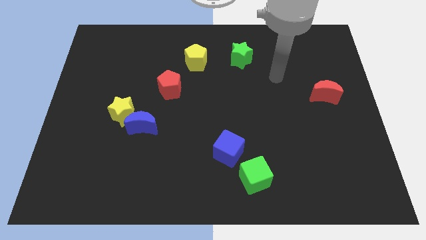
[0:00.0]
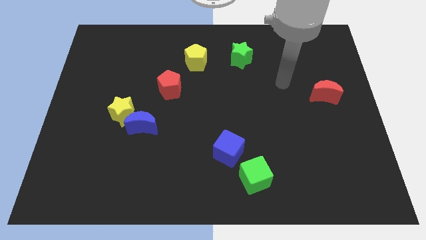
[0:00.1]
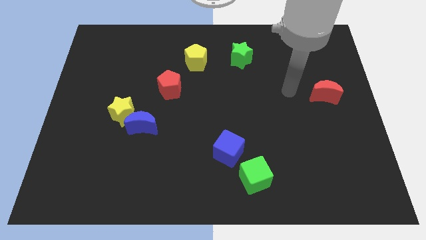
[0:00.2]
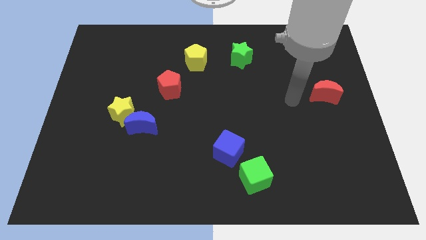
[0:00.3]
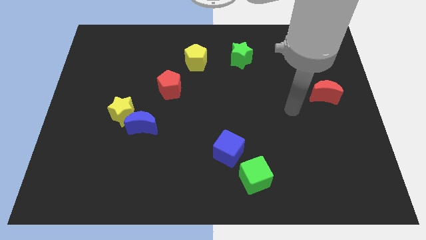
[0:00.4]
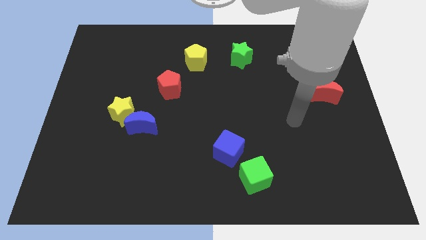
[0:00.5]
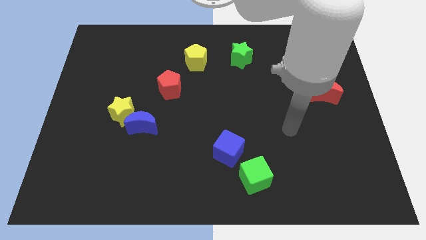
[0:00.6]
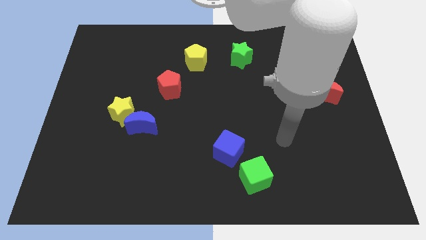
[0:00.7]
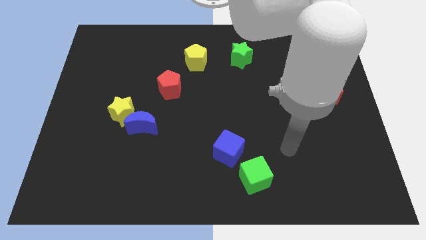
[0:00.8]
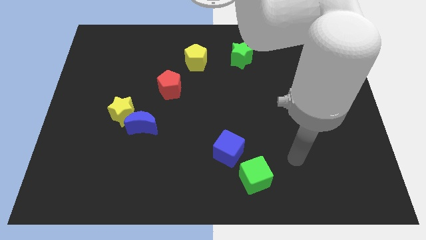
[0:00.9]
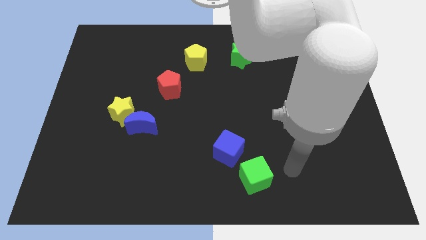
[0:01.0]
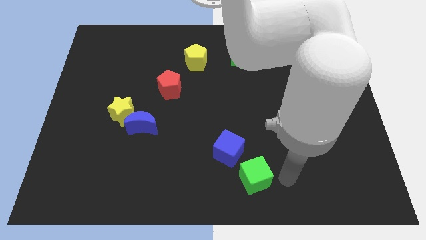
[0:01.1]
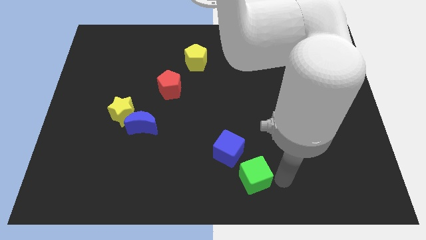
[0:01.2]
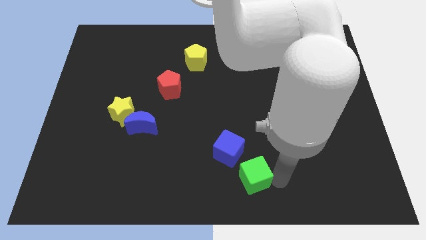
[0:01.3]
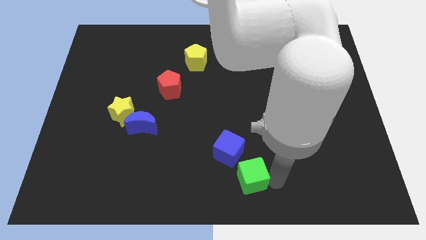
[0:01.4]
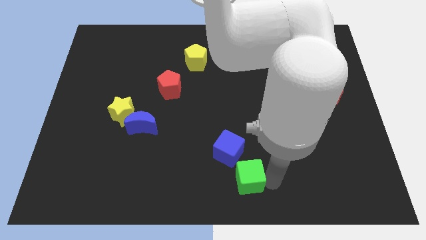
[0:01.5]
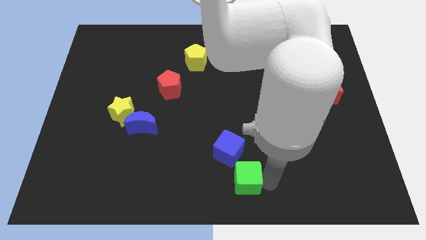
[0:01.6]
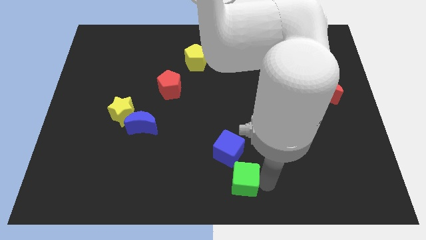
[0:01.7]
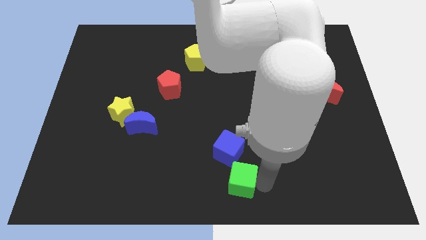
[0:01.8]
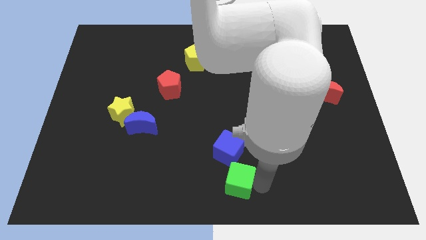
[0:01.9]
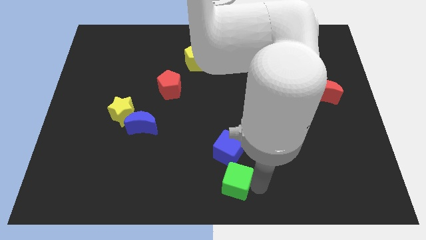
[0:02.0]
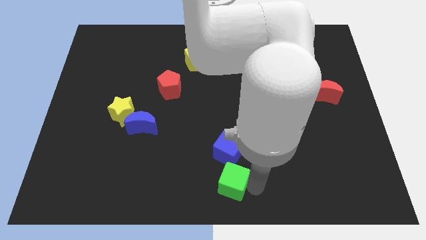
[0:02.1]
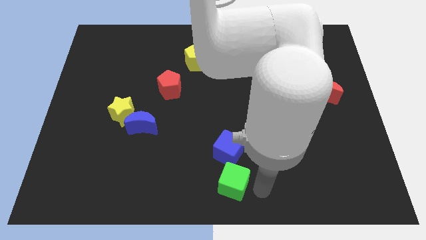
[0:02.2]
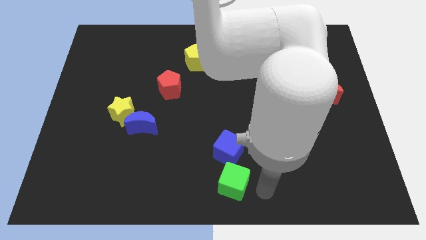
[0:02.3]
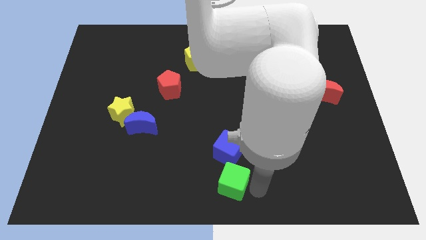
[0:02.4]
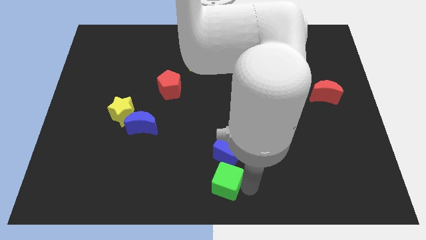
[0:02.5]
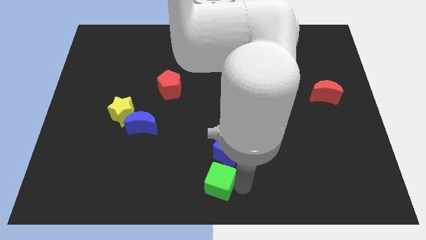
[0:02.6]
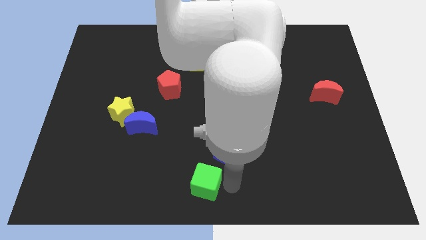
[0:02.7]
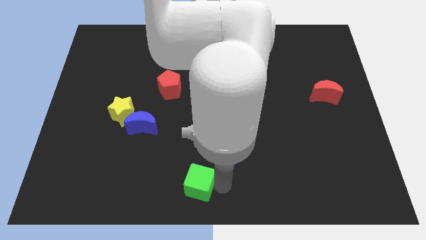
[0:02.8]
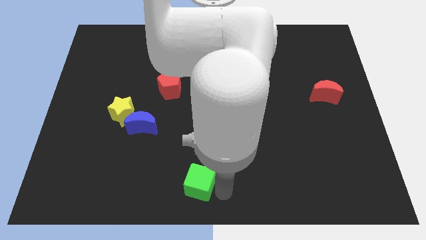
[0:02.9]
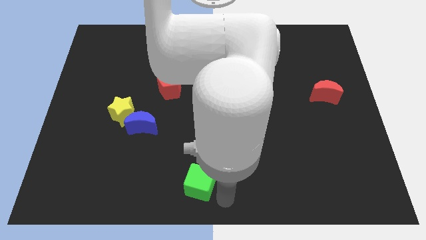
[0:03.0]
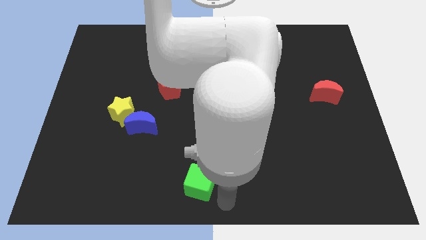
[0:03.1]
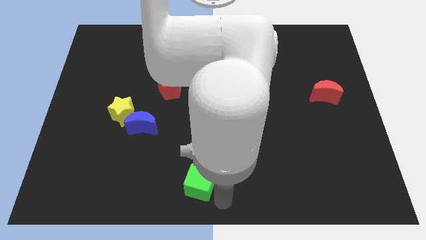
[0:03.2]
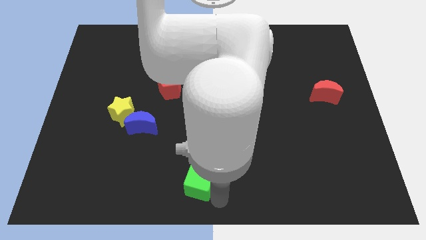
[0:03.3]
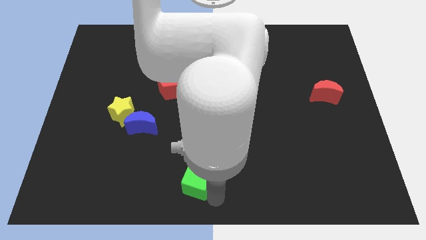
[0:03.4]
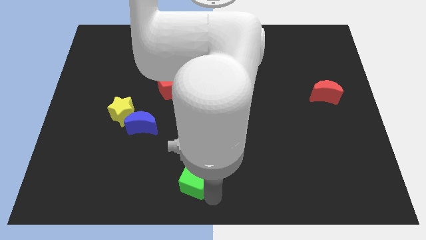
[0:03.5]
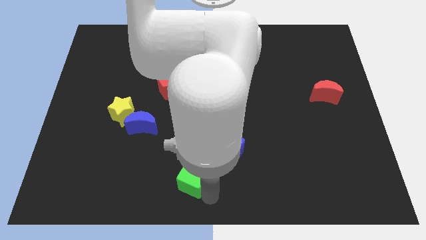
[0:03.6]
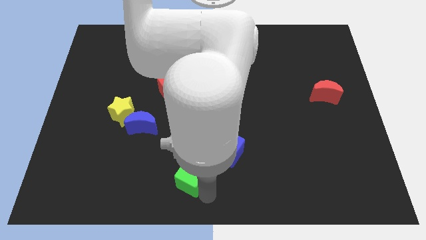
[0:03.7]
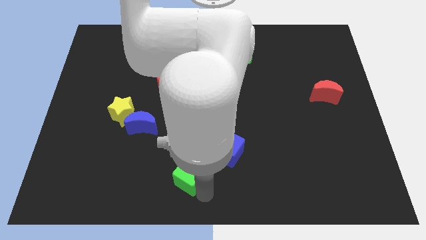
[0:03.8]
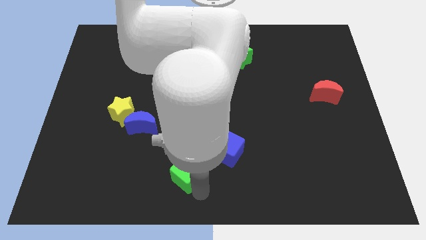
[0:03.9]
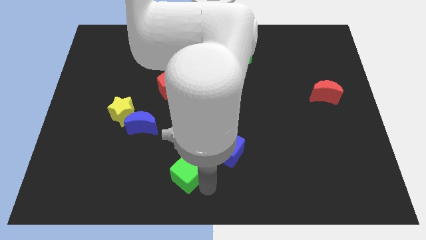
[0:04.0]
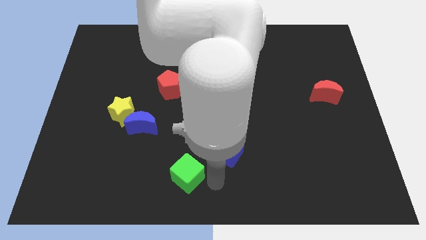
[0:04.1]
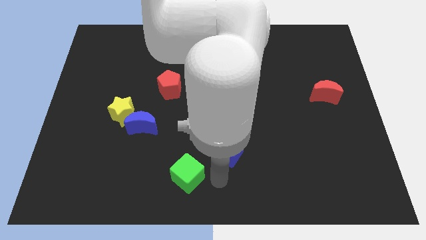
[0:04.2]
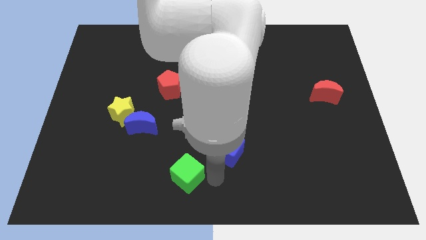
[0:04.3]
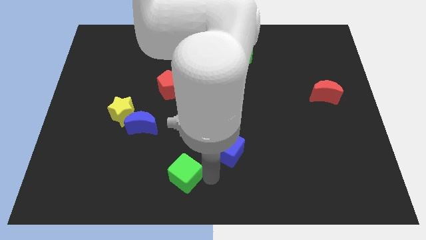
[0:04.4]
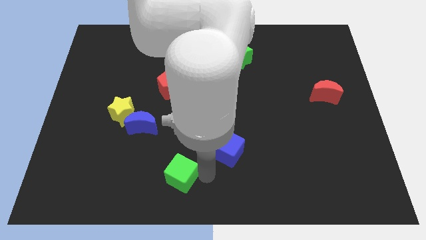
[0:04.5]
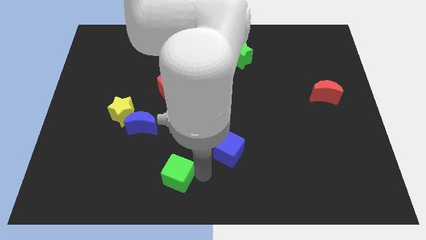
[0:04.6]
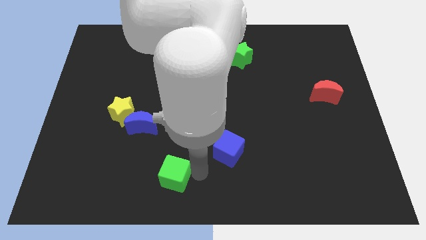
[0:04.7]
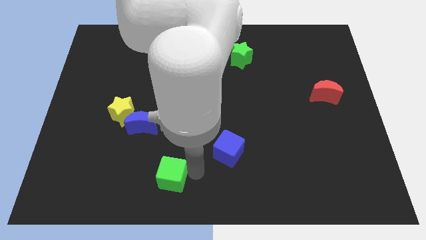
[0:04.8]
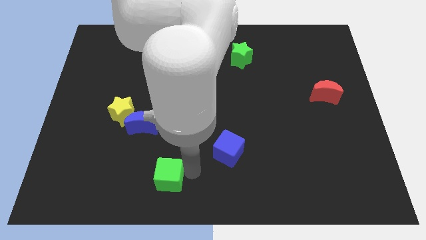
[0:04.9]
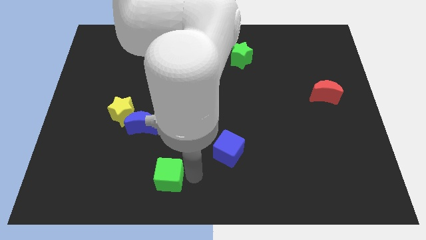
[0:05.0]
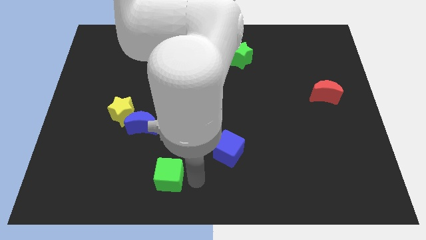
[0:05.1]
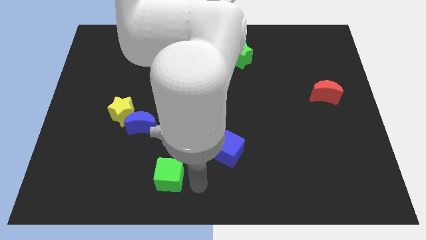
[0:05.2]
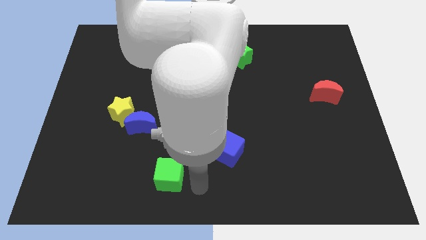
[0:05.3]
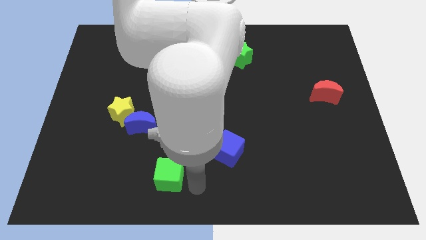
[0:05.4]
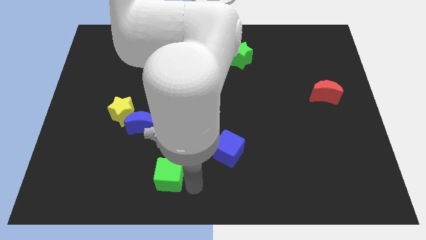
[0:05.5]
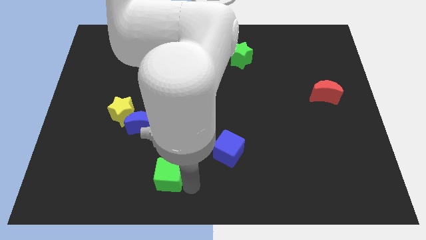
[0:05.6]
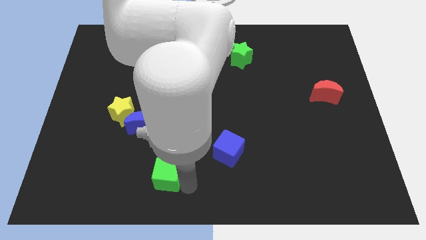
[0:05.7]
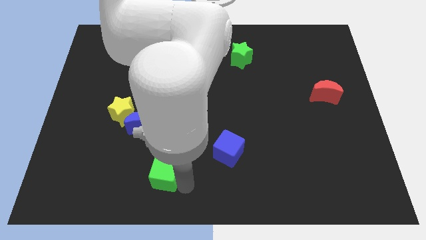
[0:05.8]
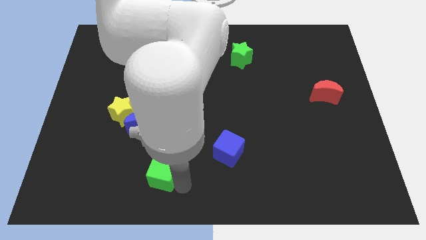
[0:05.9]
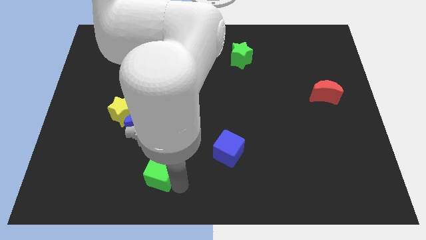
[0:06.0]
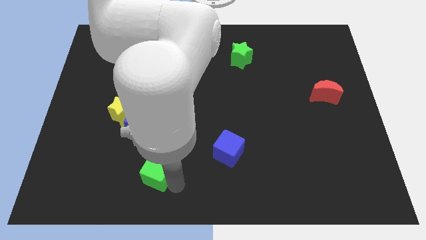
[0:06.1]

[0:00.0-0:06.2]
push the green cube left

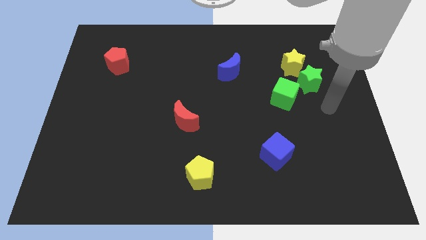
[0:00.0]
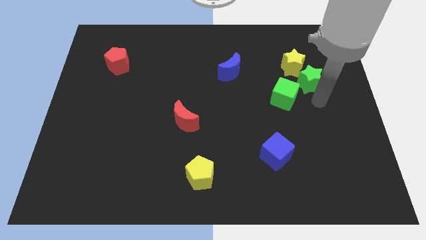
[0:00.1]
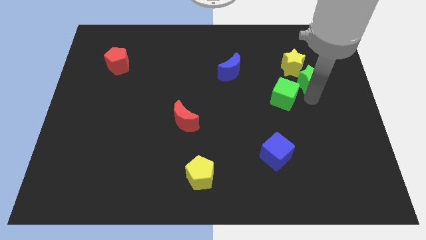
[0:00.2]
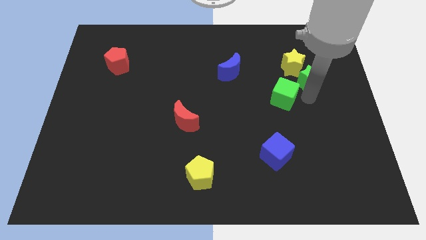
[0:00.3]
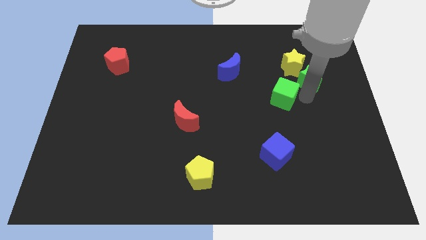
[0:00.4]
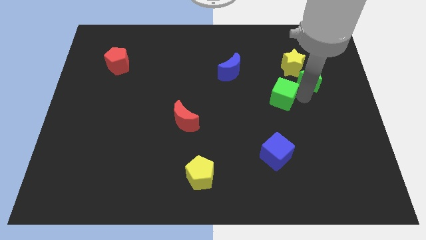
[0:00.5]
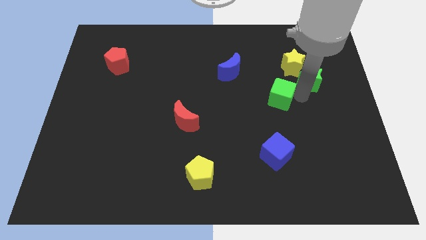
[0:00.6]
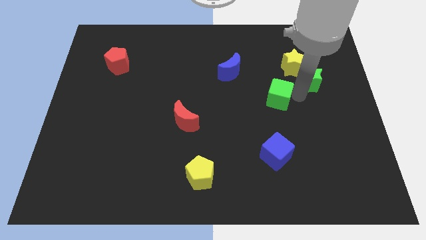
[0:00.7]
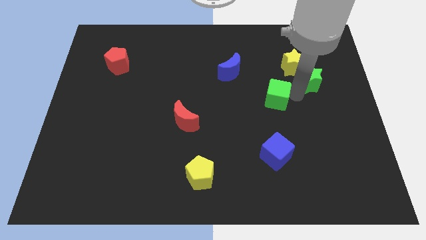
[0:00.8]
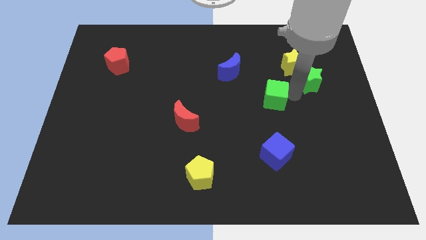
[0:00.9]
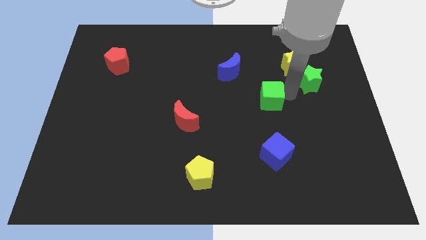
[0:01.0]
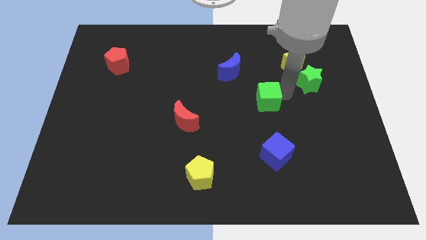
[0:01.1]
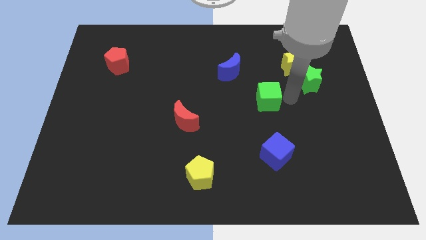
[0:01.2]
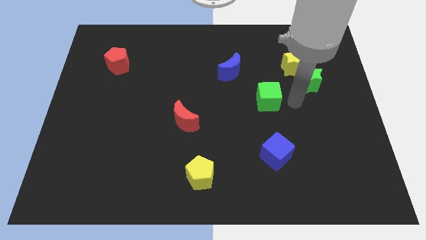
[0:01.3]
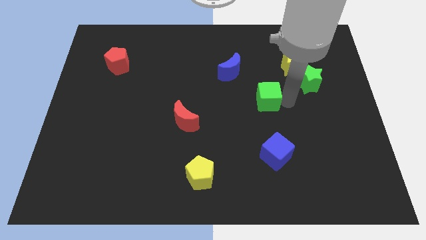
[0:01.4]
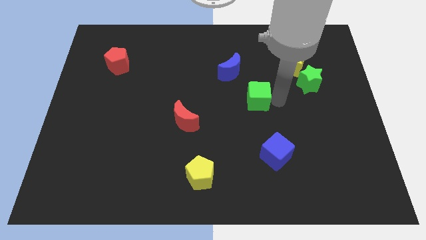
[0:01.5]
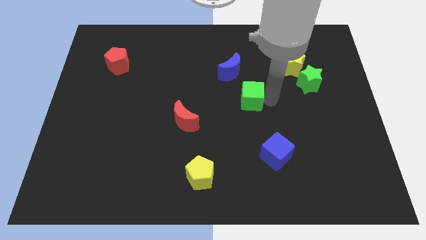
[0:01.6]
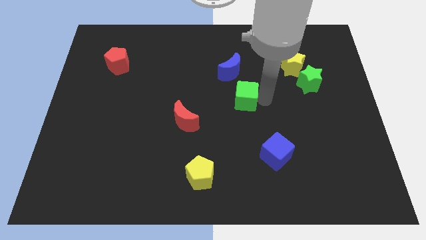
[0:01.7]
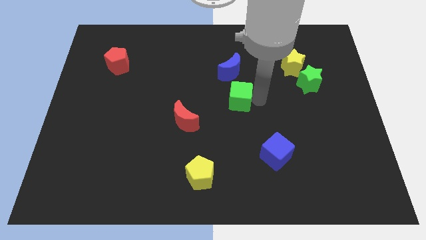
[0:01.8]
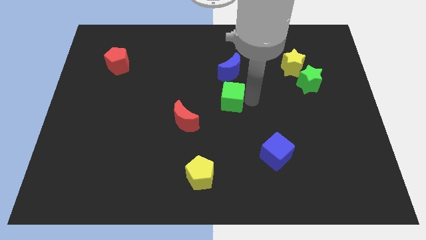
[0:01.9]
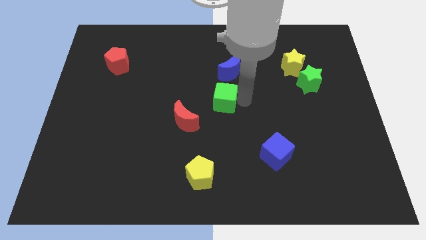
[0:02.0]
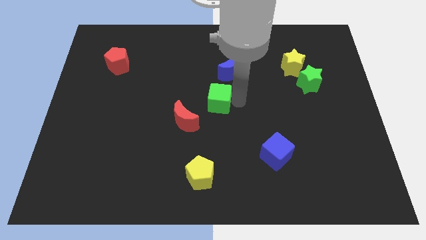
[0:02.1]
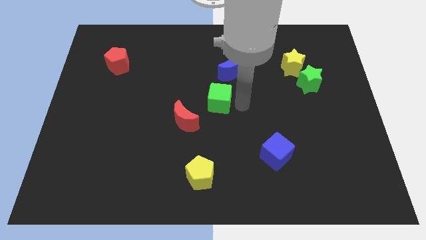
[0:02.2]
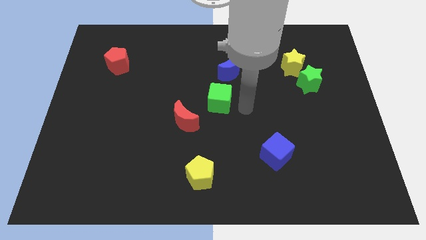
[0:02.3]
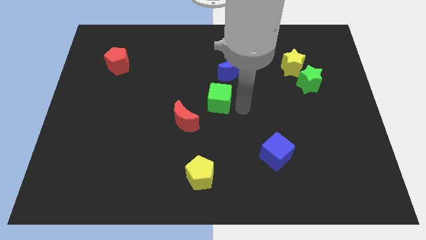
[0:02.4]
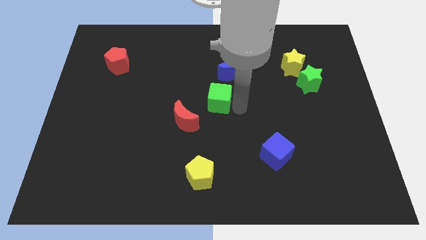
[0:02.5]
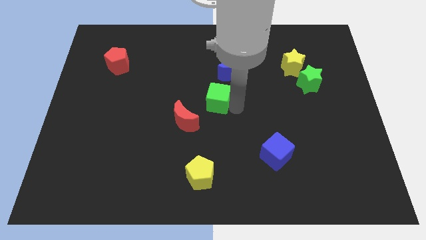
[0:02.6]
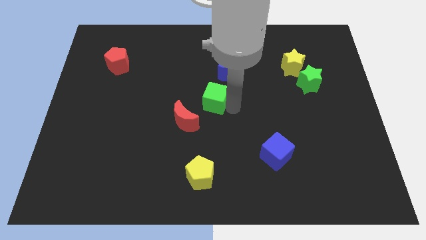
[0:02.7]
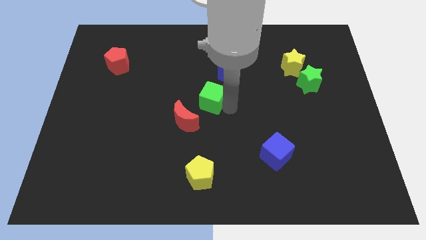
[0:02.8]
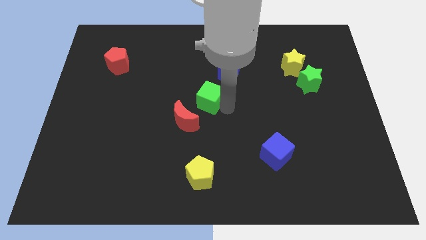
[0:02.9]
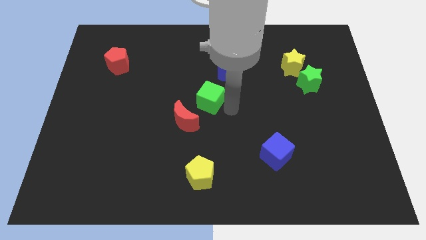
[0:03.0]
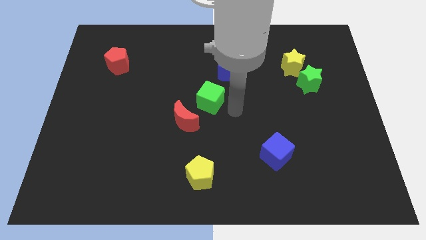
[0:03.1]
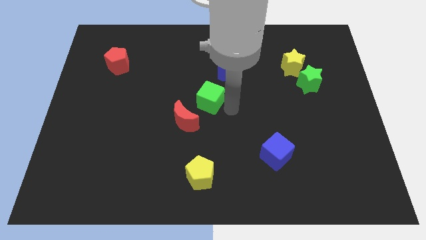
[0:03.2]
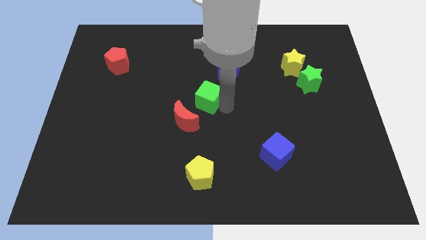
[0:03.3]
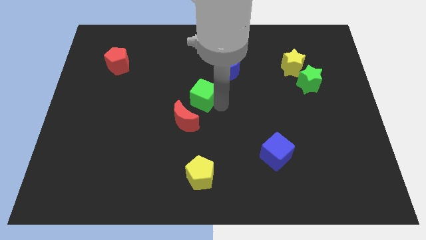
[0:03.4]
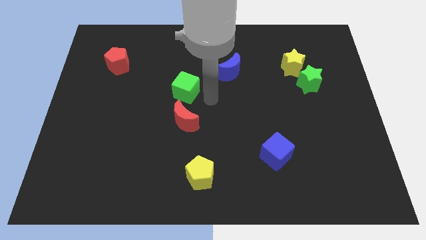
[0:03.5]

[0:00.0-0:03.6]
slide the green cube left
